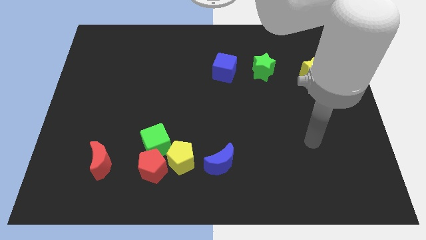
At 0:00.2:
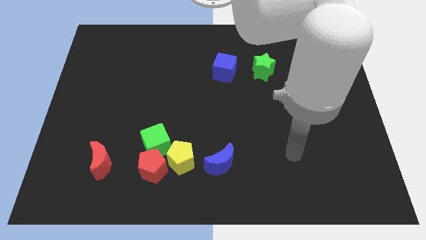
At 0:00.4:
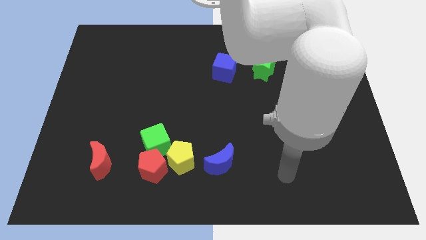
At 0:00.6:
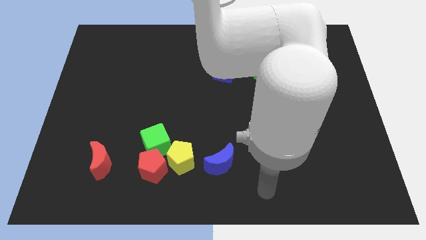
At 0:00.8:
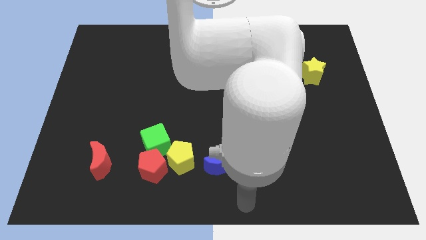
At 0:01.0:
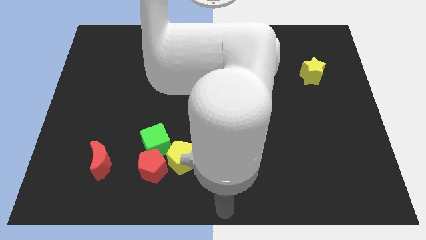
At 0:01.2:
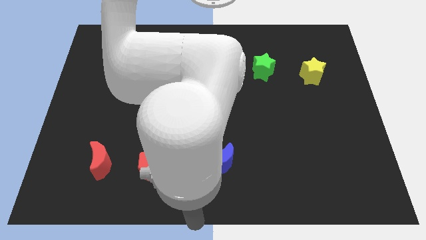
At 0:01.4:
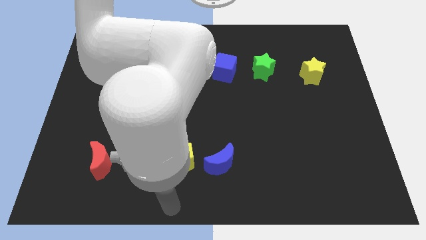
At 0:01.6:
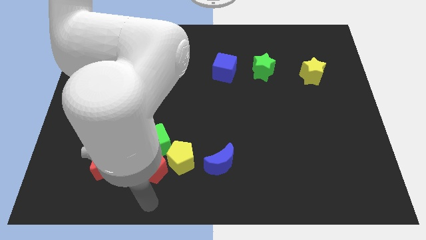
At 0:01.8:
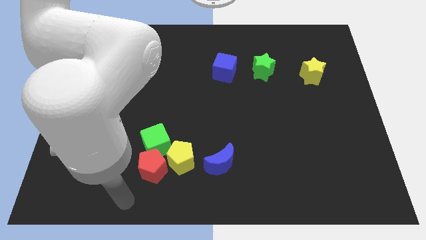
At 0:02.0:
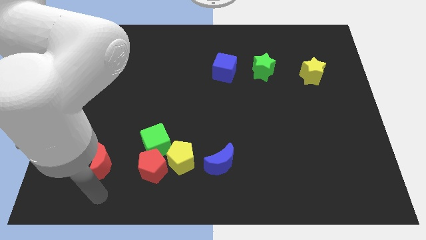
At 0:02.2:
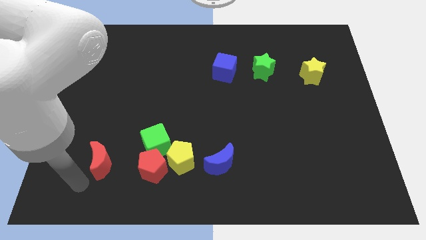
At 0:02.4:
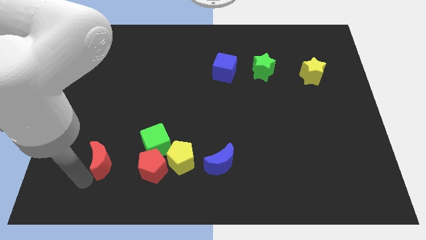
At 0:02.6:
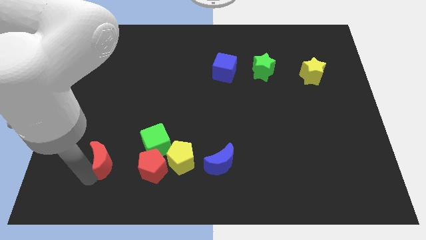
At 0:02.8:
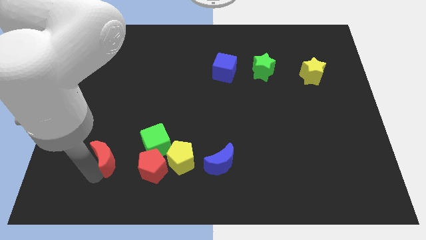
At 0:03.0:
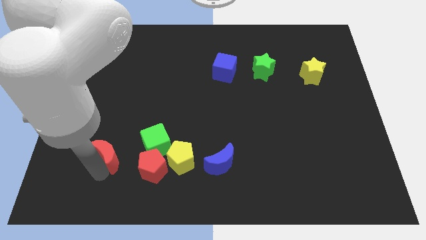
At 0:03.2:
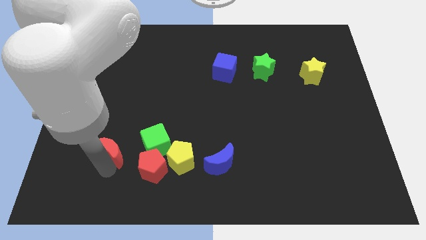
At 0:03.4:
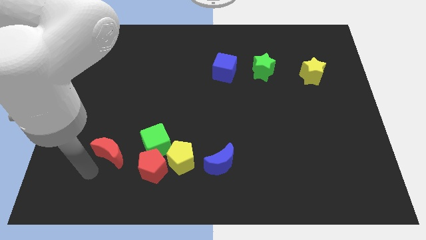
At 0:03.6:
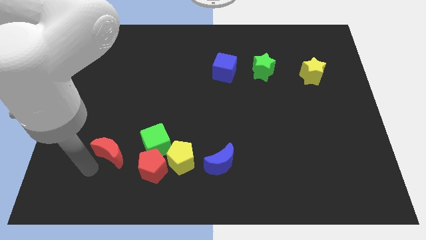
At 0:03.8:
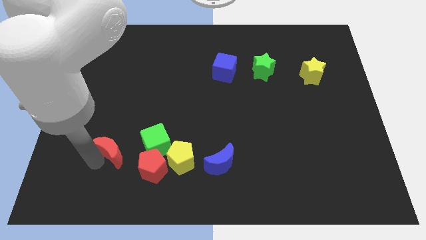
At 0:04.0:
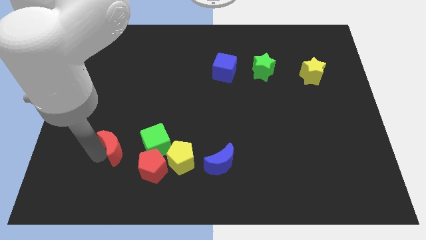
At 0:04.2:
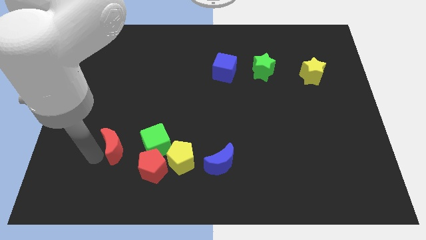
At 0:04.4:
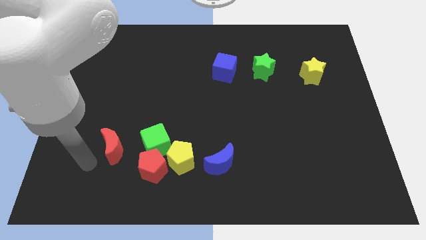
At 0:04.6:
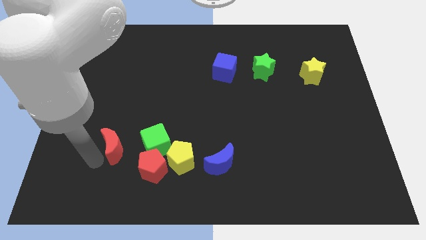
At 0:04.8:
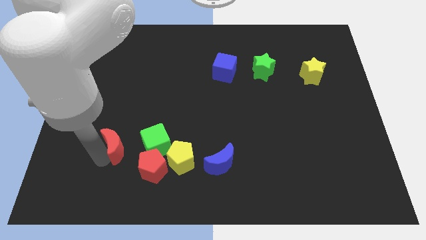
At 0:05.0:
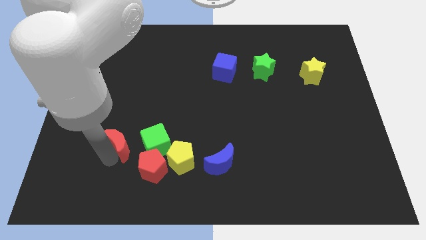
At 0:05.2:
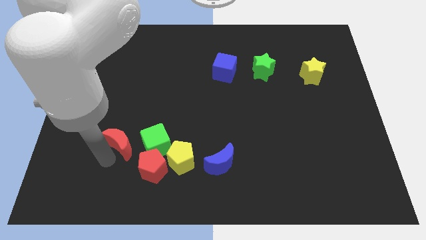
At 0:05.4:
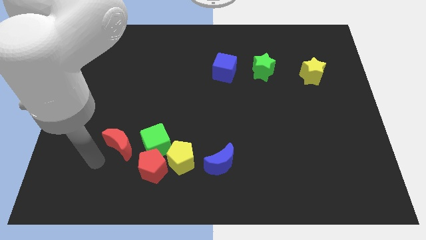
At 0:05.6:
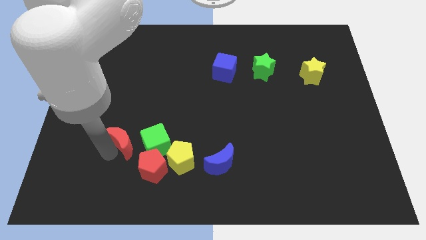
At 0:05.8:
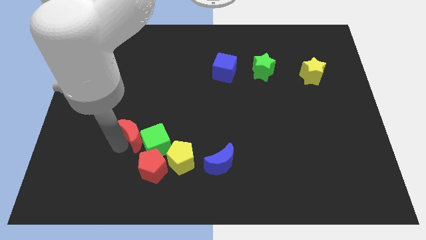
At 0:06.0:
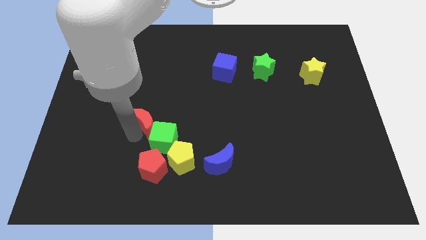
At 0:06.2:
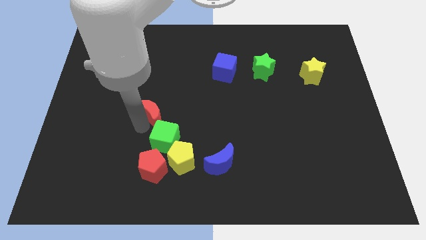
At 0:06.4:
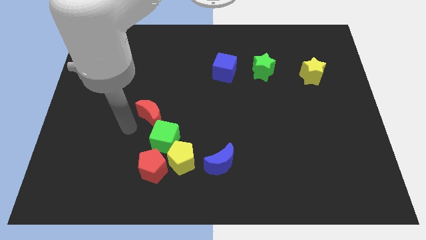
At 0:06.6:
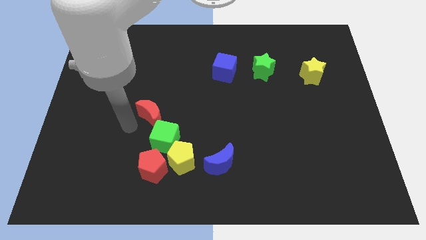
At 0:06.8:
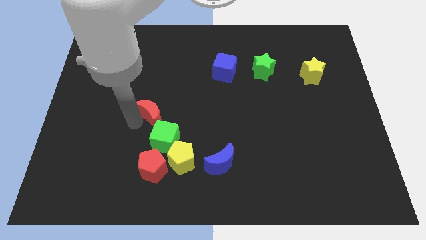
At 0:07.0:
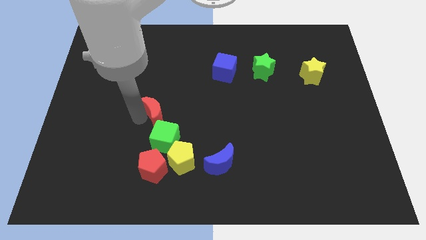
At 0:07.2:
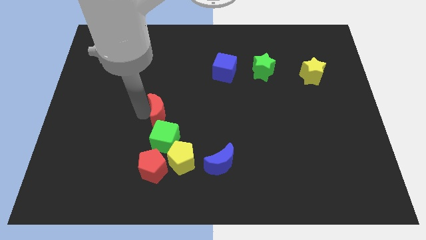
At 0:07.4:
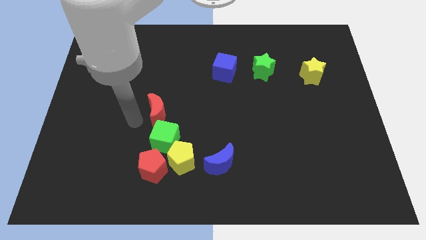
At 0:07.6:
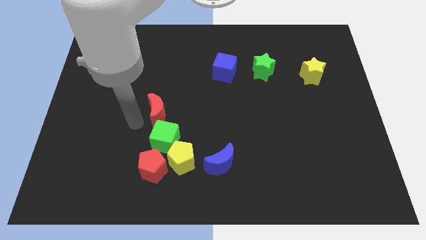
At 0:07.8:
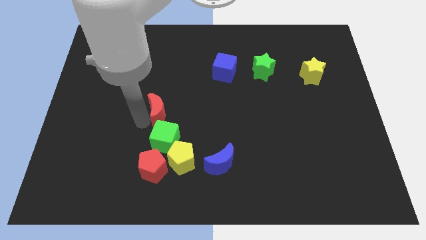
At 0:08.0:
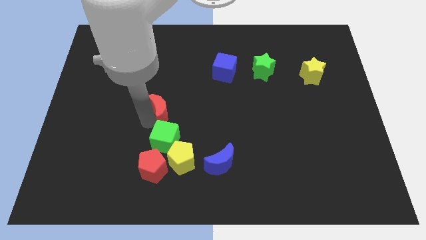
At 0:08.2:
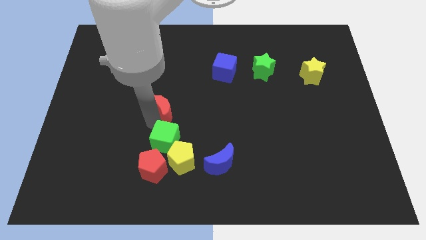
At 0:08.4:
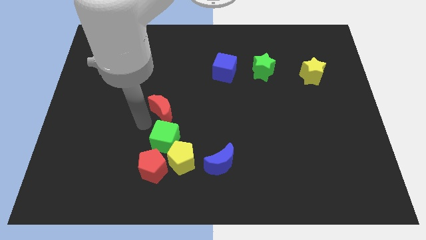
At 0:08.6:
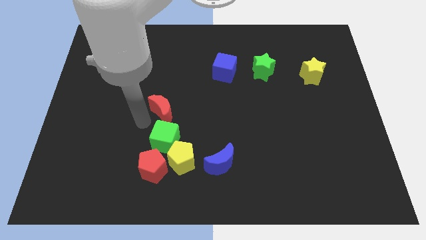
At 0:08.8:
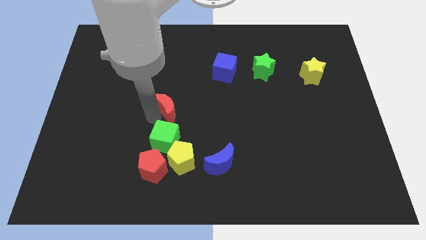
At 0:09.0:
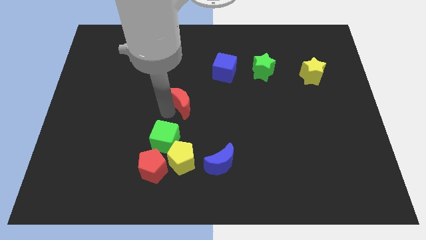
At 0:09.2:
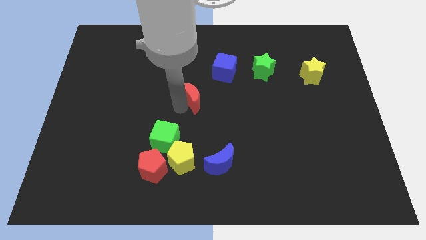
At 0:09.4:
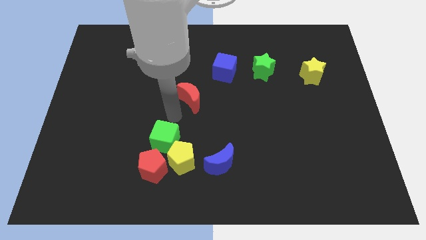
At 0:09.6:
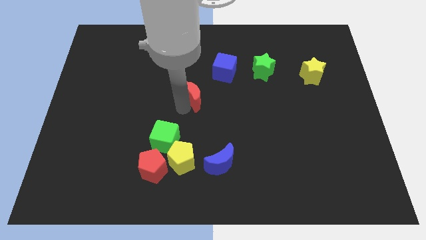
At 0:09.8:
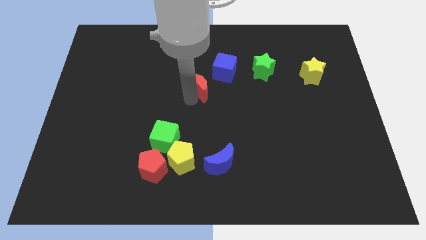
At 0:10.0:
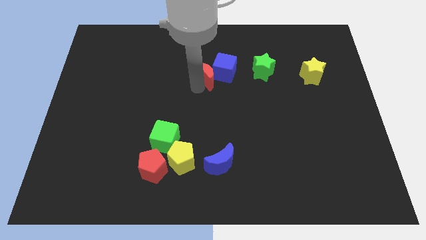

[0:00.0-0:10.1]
move the red moon to the blue cube

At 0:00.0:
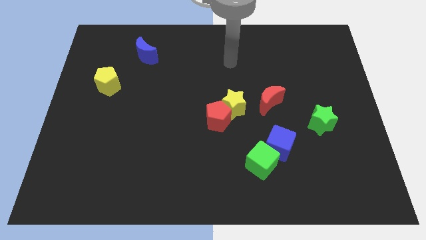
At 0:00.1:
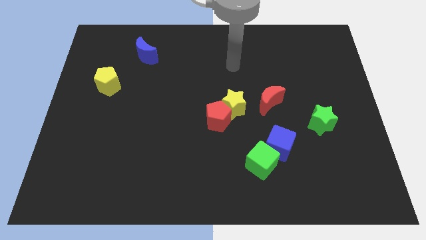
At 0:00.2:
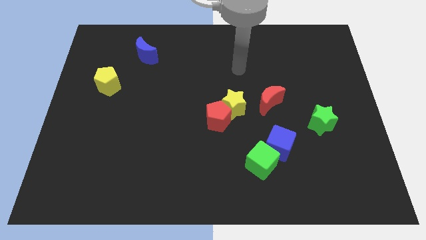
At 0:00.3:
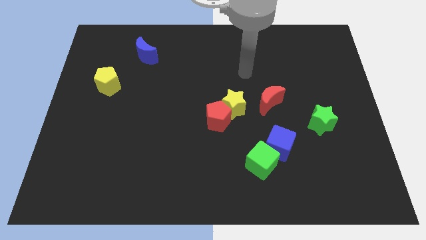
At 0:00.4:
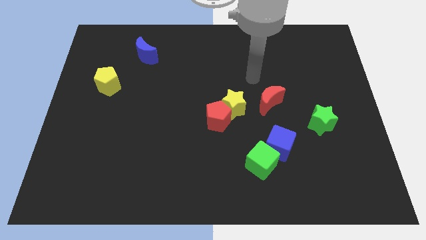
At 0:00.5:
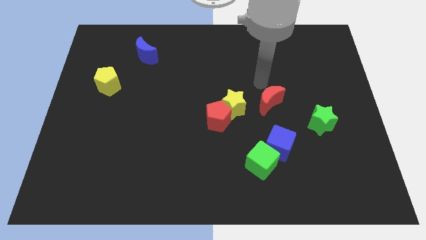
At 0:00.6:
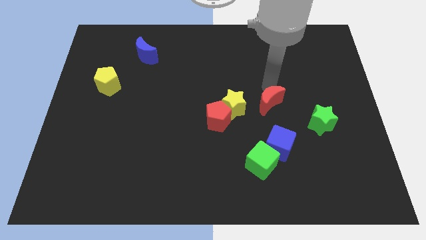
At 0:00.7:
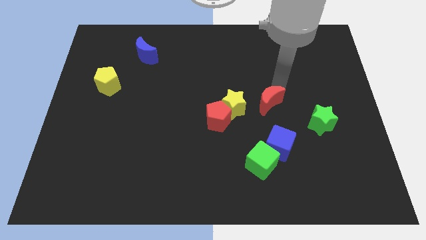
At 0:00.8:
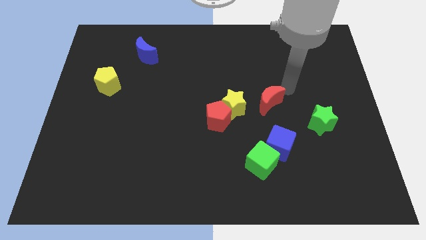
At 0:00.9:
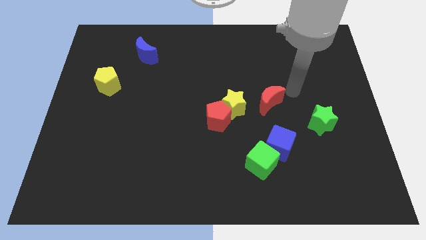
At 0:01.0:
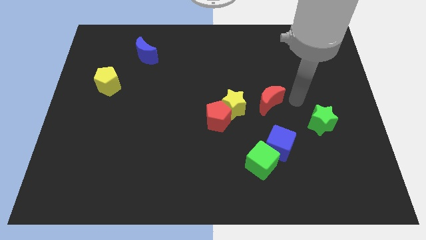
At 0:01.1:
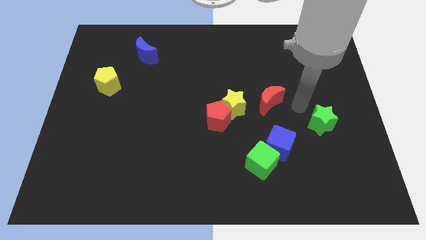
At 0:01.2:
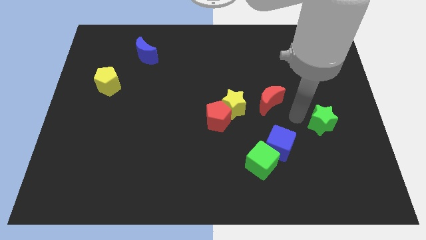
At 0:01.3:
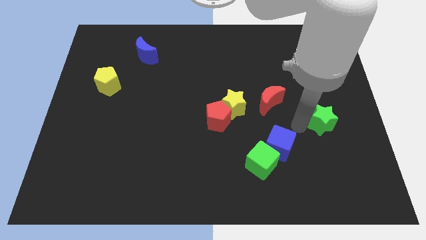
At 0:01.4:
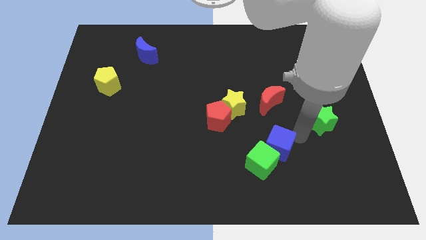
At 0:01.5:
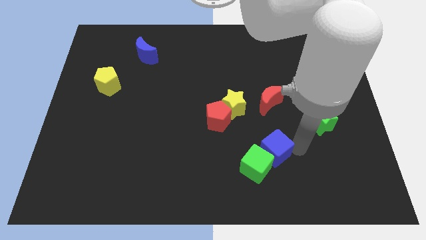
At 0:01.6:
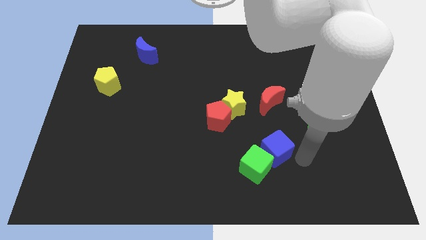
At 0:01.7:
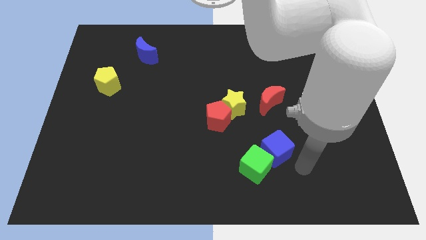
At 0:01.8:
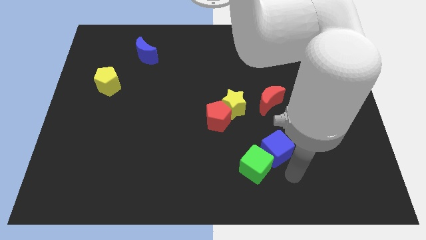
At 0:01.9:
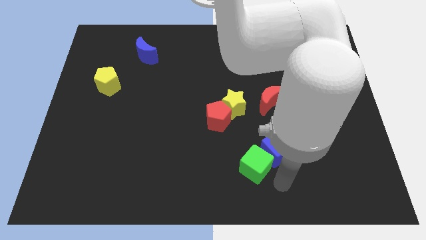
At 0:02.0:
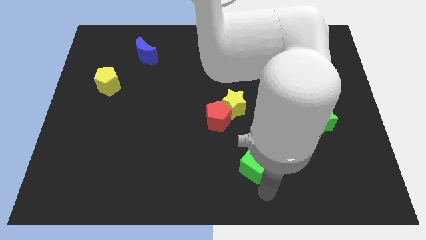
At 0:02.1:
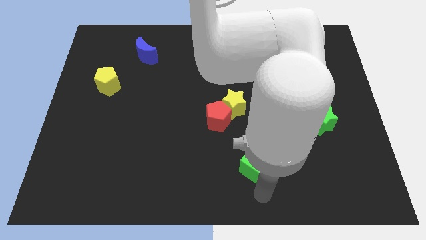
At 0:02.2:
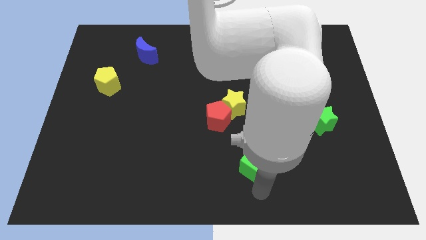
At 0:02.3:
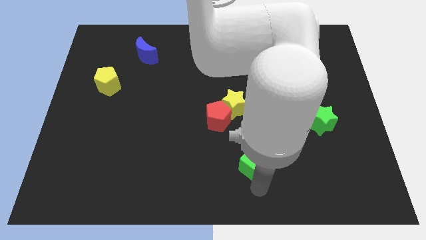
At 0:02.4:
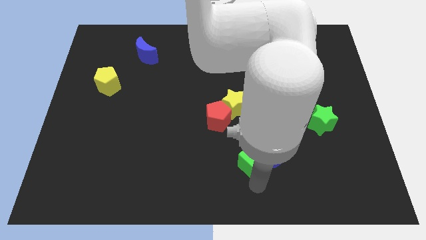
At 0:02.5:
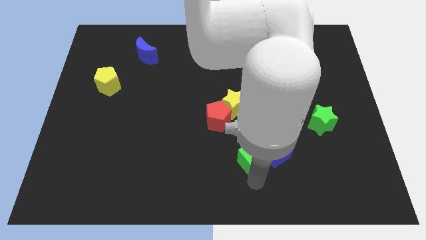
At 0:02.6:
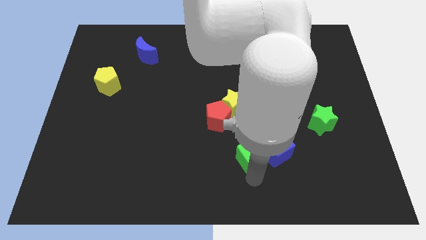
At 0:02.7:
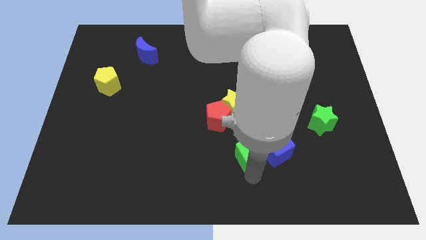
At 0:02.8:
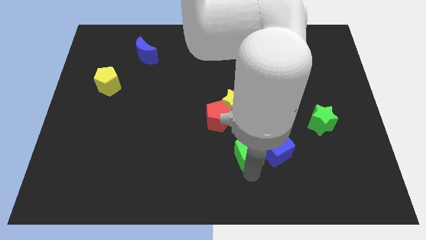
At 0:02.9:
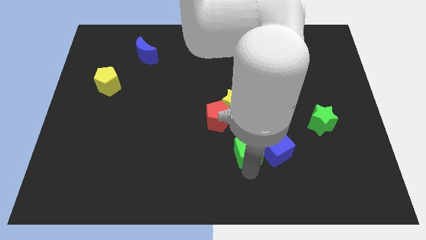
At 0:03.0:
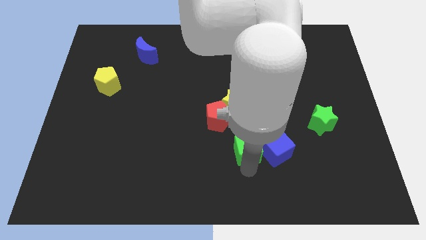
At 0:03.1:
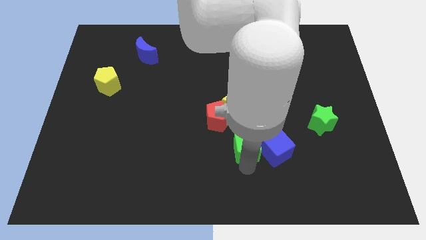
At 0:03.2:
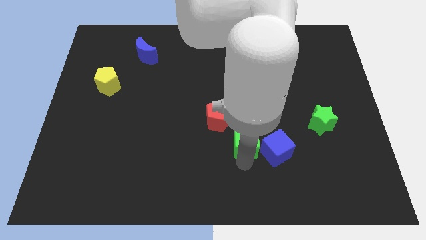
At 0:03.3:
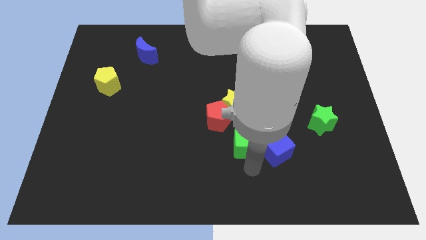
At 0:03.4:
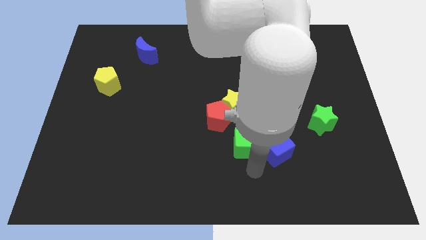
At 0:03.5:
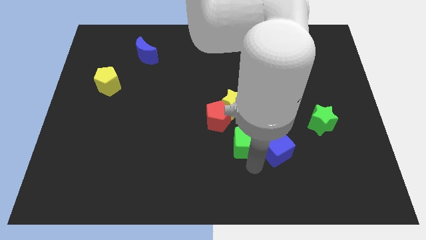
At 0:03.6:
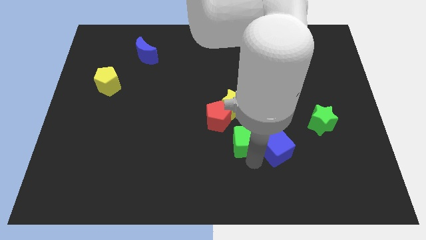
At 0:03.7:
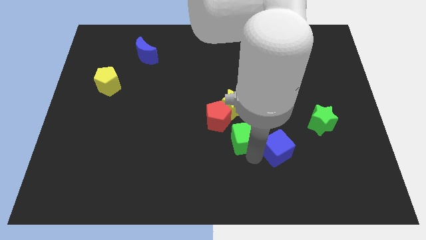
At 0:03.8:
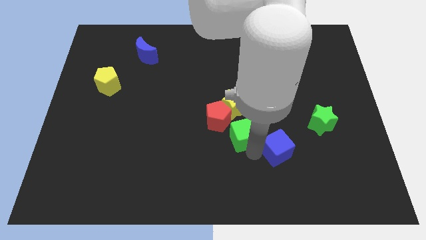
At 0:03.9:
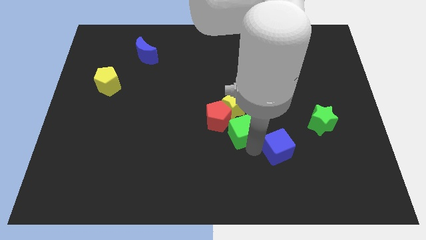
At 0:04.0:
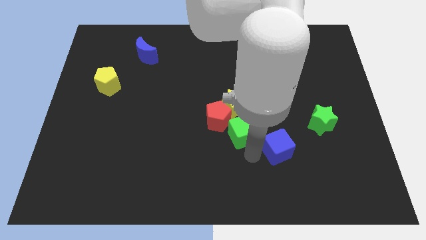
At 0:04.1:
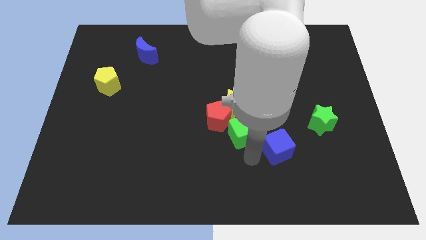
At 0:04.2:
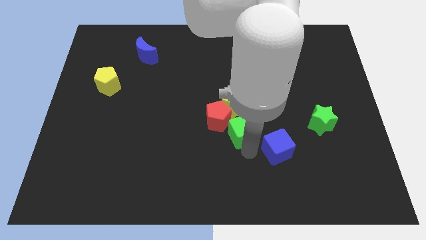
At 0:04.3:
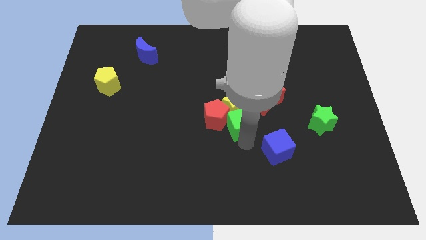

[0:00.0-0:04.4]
put the green cube towards the yellow star
